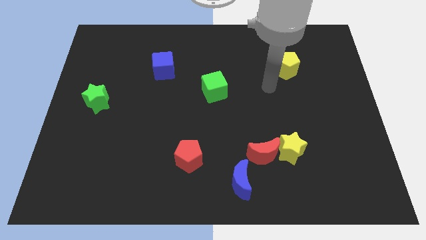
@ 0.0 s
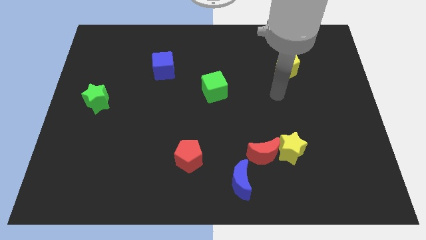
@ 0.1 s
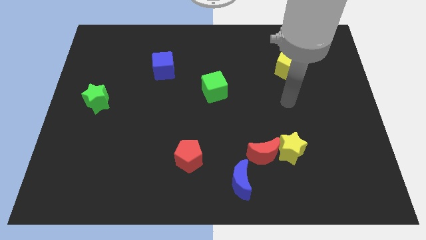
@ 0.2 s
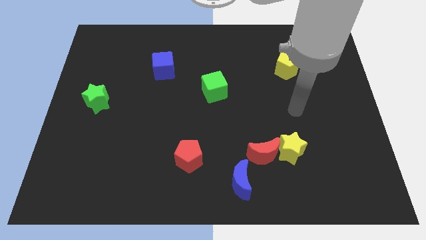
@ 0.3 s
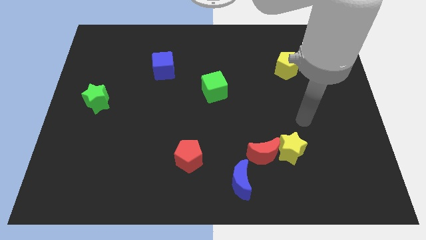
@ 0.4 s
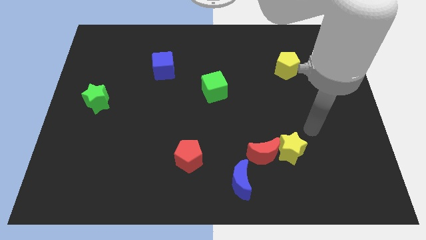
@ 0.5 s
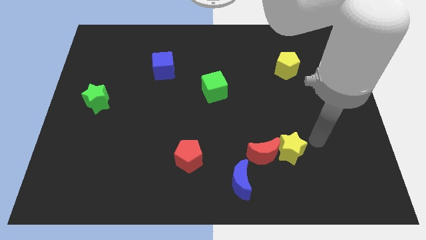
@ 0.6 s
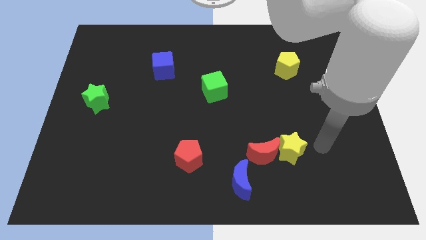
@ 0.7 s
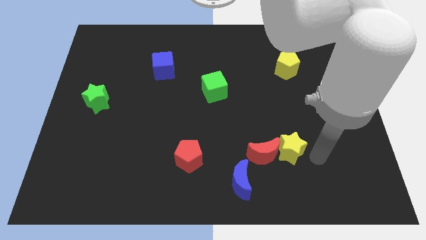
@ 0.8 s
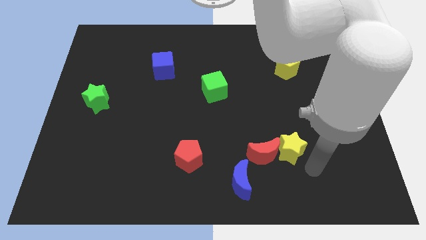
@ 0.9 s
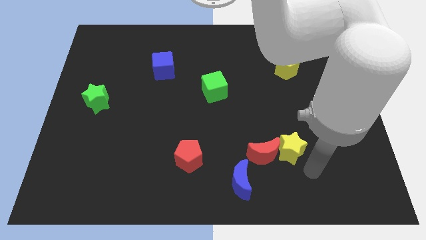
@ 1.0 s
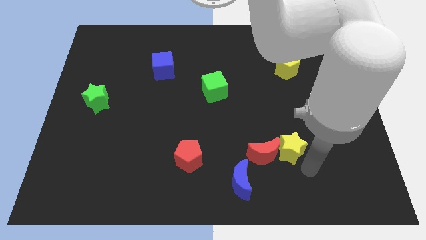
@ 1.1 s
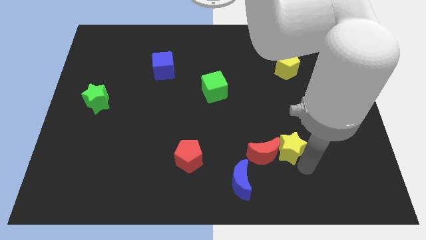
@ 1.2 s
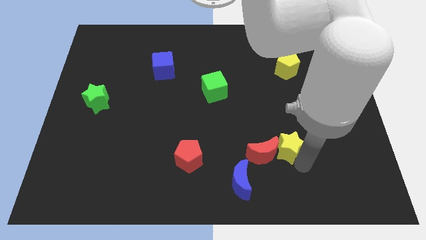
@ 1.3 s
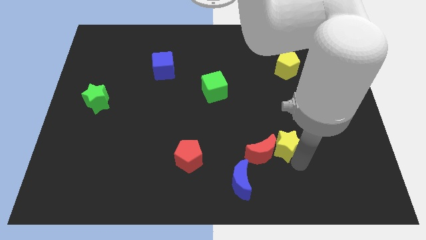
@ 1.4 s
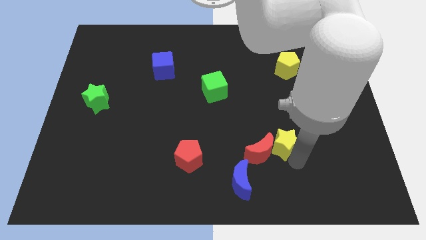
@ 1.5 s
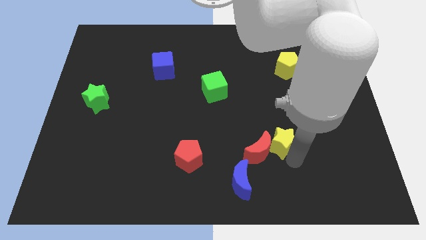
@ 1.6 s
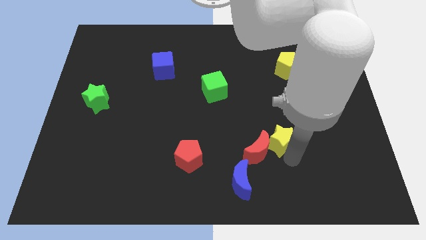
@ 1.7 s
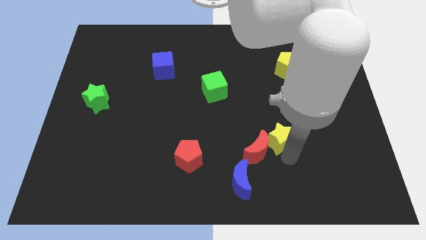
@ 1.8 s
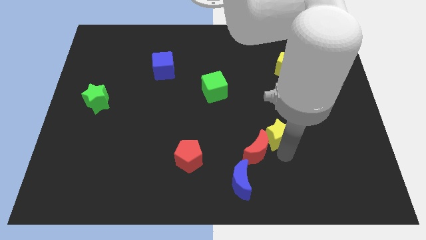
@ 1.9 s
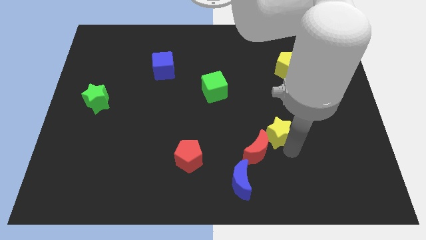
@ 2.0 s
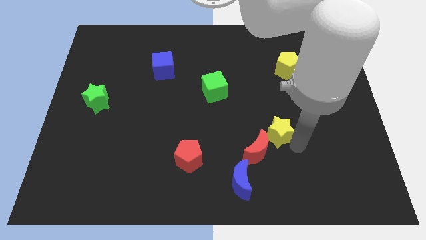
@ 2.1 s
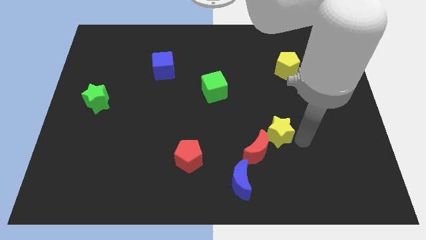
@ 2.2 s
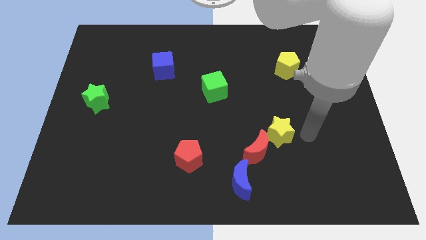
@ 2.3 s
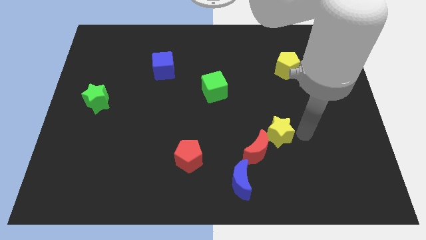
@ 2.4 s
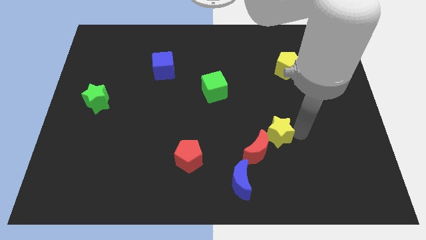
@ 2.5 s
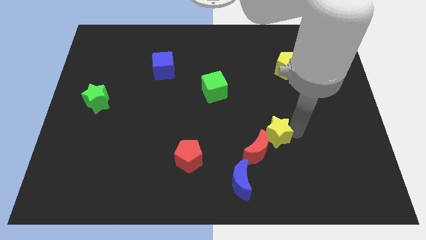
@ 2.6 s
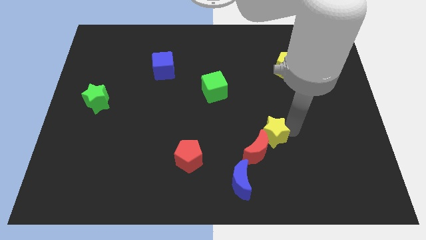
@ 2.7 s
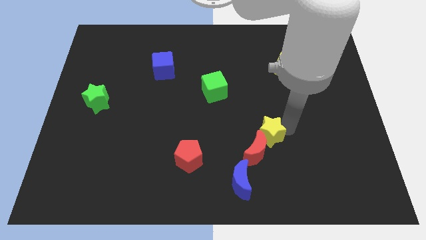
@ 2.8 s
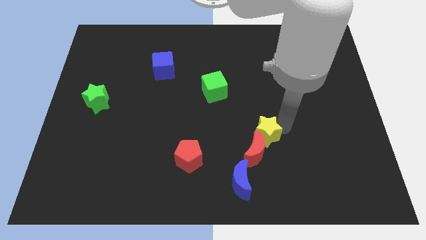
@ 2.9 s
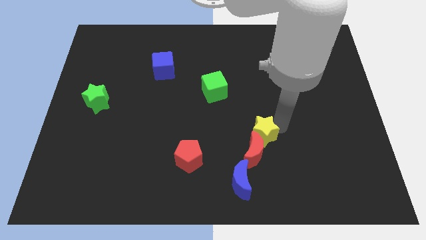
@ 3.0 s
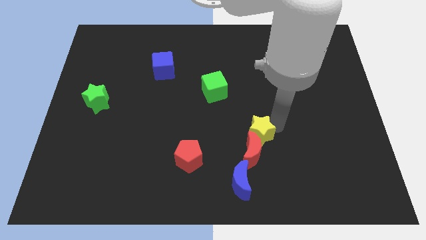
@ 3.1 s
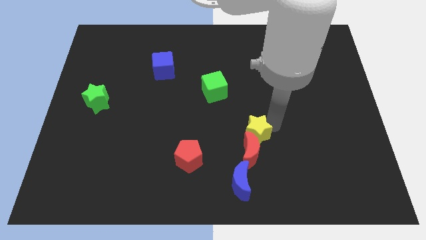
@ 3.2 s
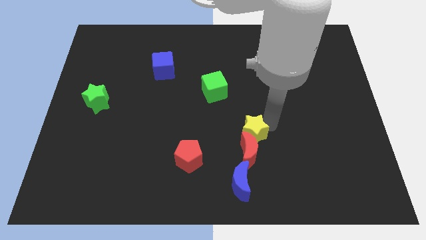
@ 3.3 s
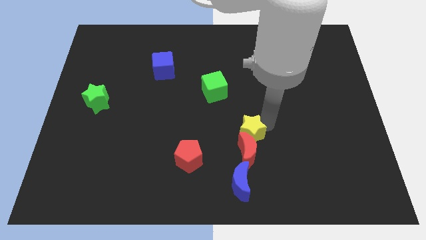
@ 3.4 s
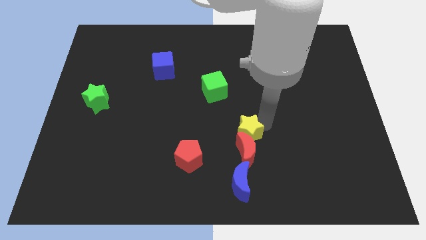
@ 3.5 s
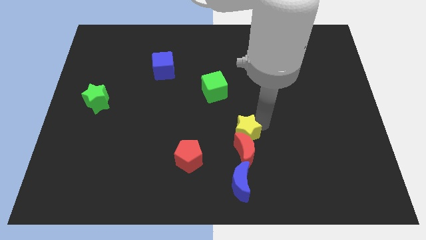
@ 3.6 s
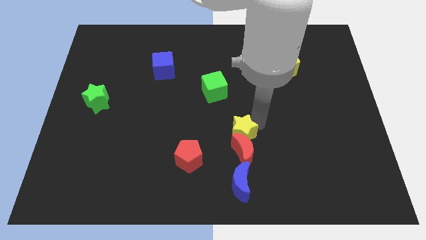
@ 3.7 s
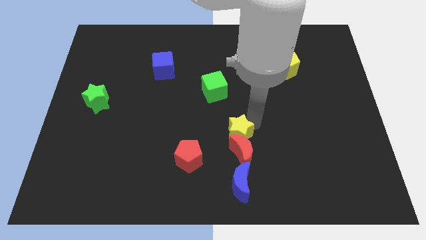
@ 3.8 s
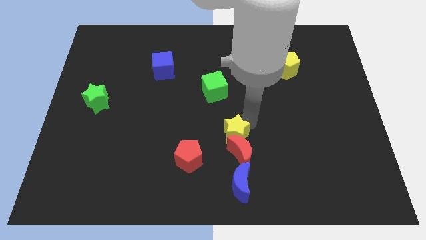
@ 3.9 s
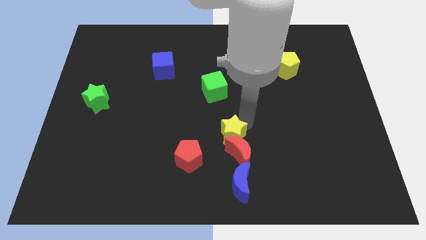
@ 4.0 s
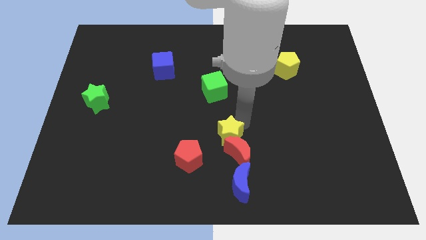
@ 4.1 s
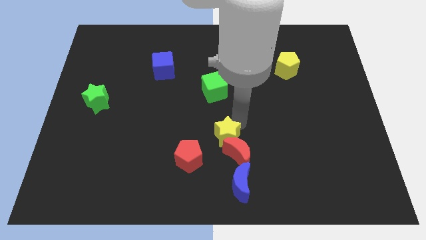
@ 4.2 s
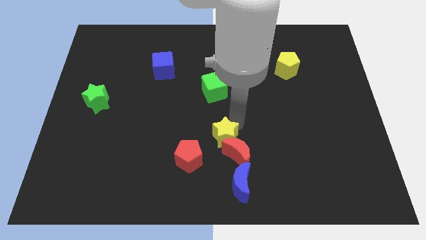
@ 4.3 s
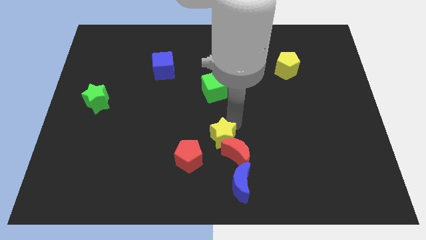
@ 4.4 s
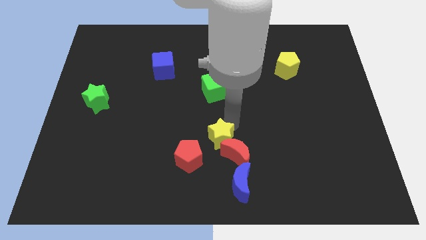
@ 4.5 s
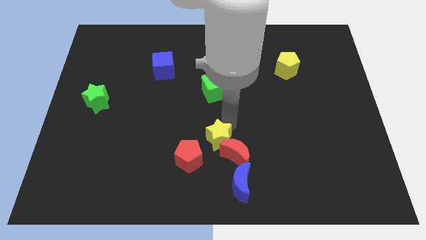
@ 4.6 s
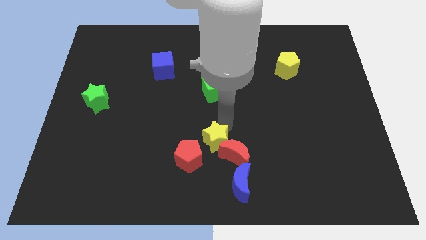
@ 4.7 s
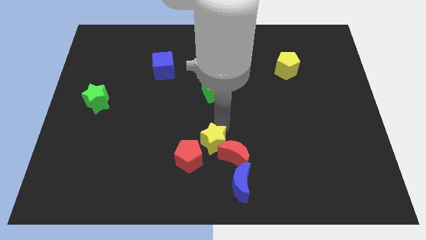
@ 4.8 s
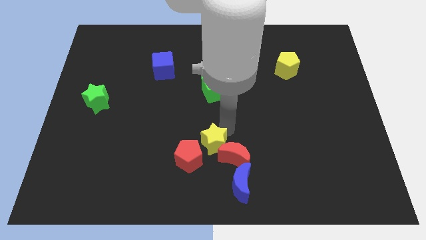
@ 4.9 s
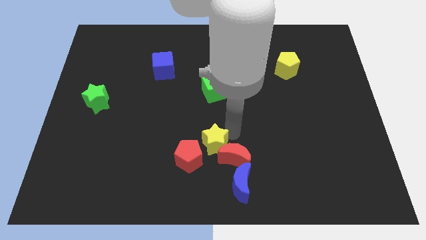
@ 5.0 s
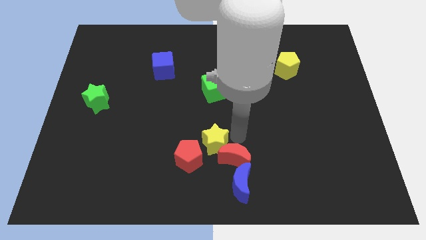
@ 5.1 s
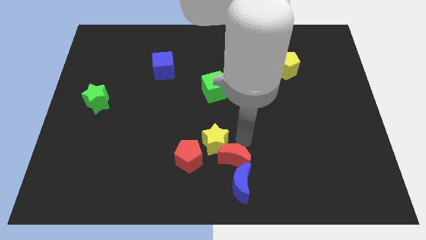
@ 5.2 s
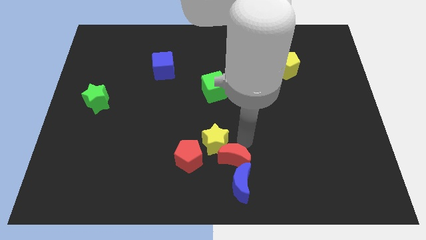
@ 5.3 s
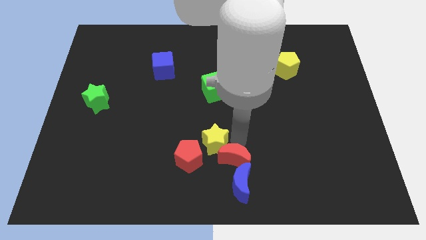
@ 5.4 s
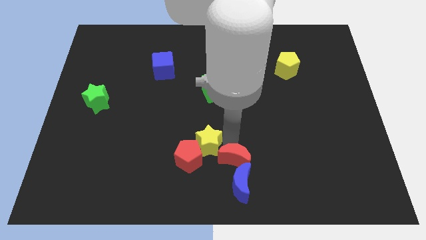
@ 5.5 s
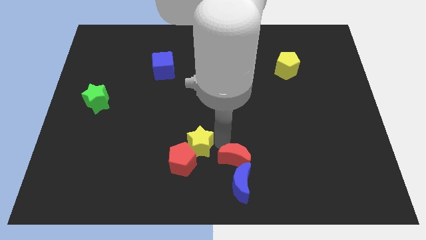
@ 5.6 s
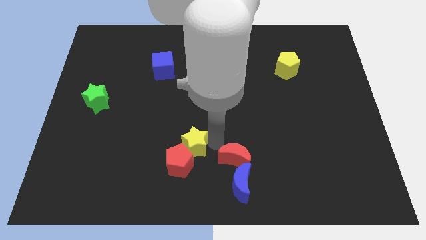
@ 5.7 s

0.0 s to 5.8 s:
slide the yellow star to the left

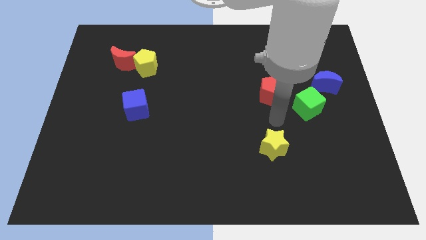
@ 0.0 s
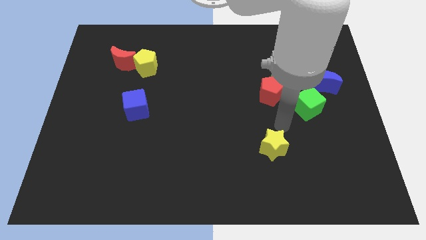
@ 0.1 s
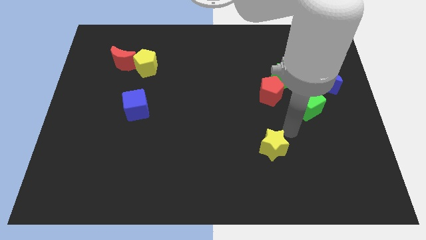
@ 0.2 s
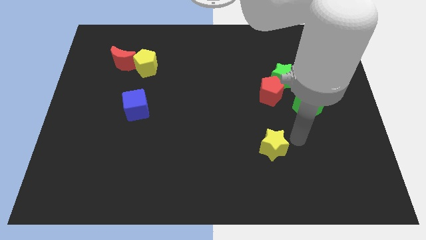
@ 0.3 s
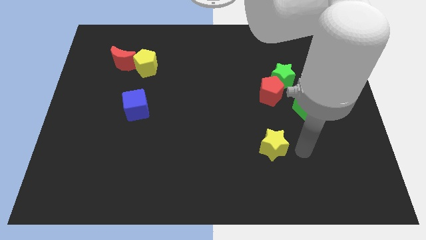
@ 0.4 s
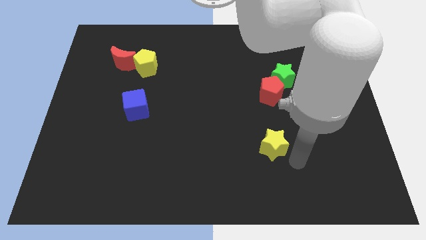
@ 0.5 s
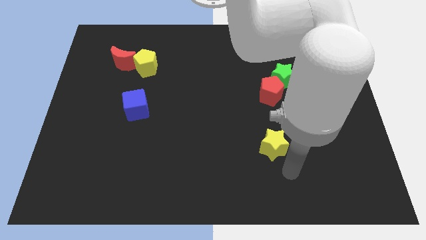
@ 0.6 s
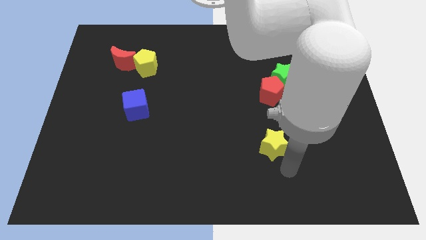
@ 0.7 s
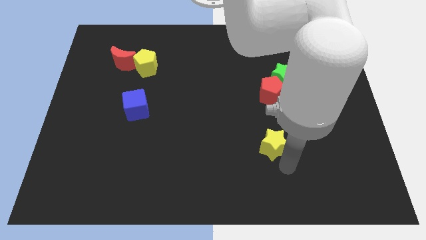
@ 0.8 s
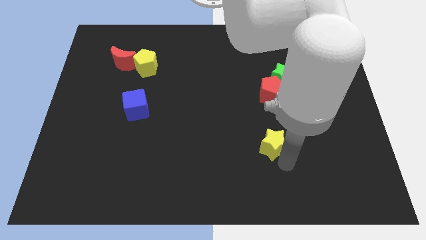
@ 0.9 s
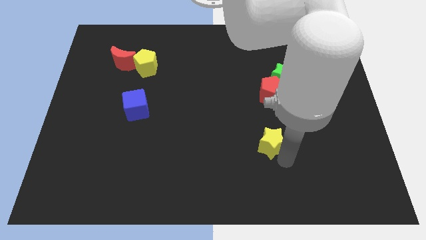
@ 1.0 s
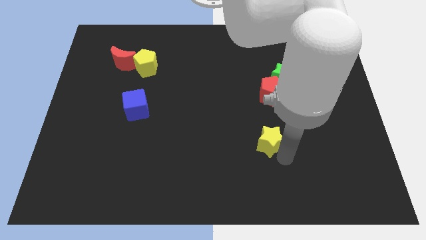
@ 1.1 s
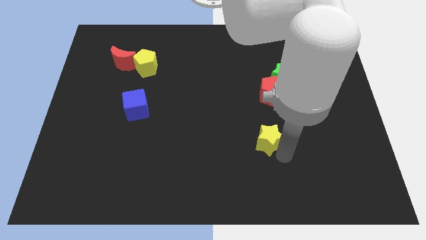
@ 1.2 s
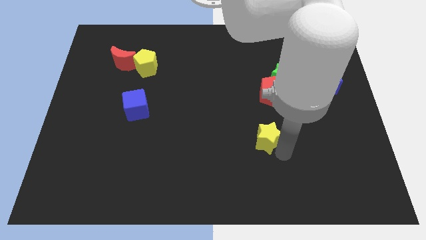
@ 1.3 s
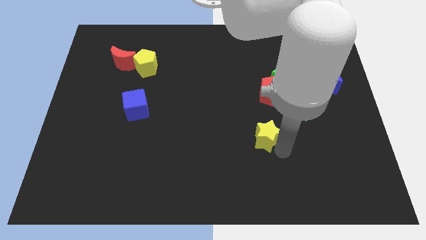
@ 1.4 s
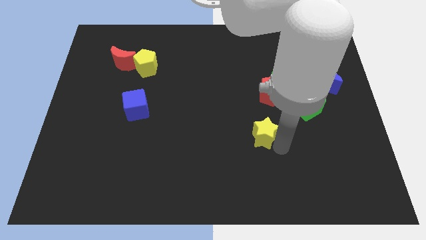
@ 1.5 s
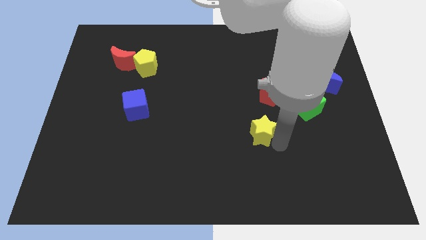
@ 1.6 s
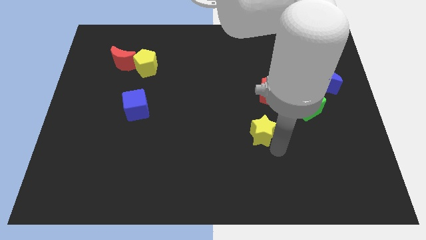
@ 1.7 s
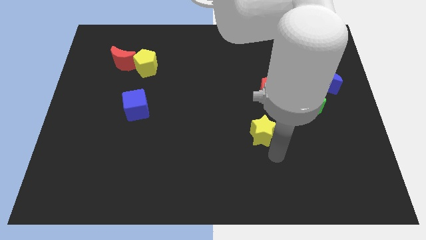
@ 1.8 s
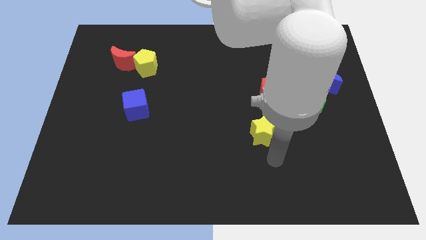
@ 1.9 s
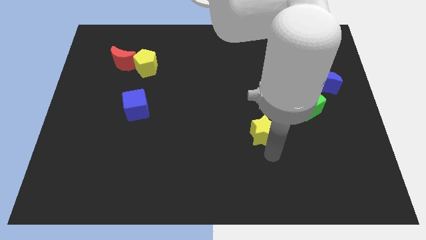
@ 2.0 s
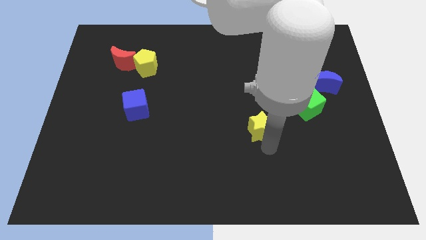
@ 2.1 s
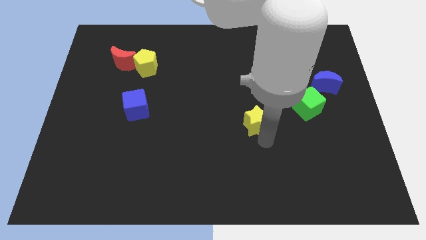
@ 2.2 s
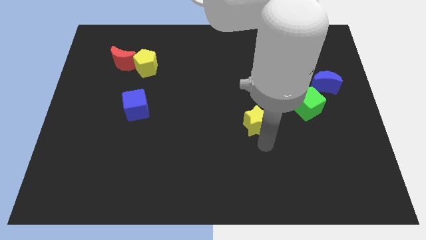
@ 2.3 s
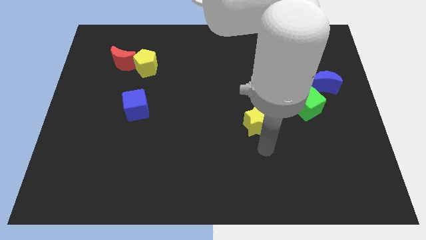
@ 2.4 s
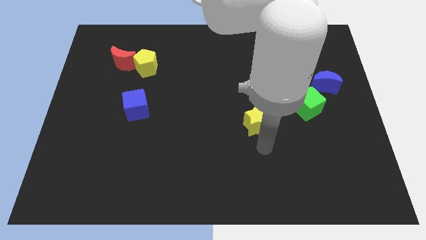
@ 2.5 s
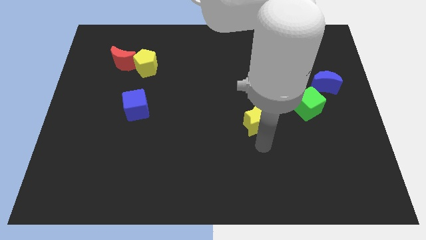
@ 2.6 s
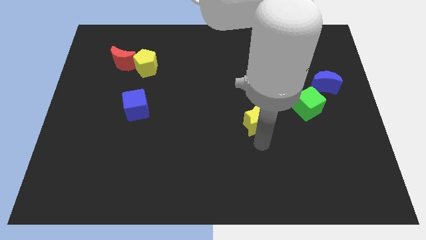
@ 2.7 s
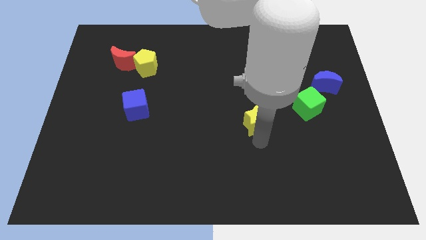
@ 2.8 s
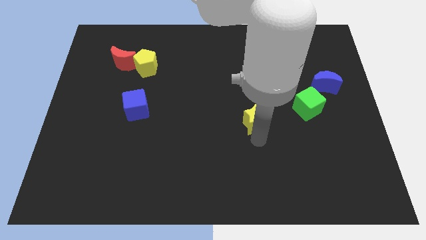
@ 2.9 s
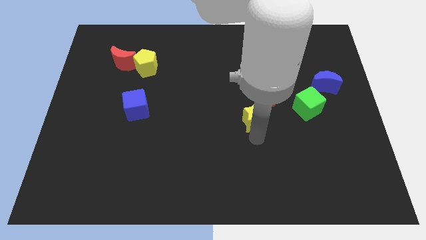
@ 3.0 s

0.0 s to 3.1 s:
slightly move the yellow star upwards
